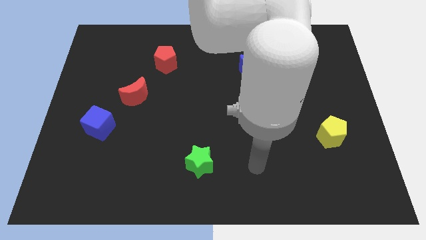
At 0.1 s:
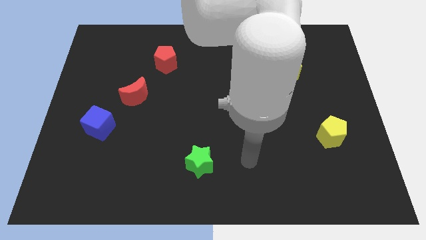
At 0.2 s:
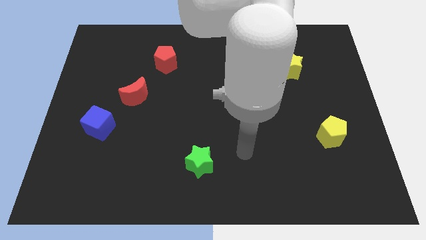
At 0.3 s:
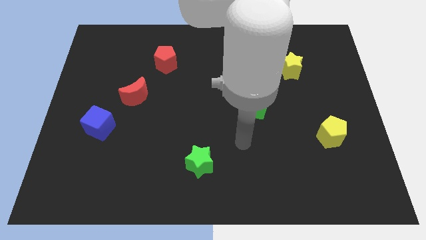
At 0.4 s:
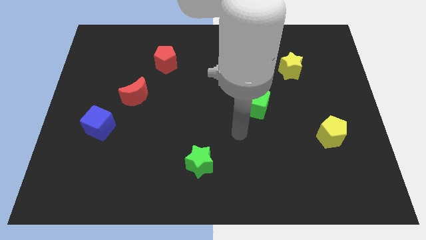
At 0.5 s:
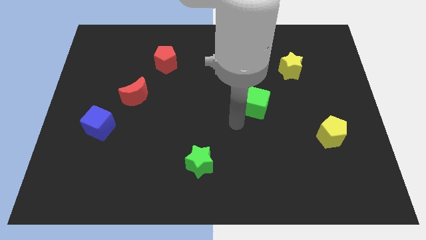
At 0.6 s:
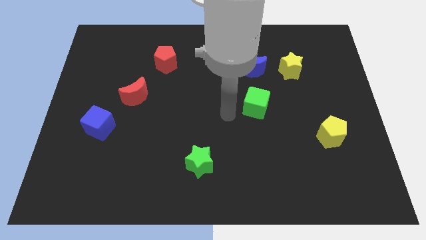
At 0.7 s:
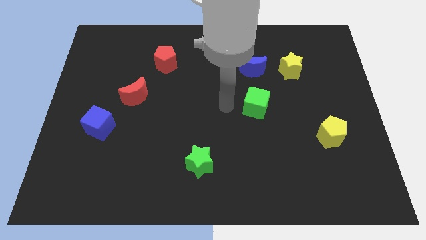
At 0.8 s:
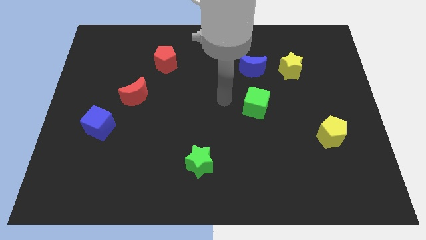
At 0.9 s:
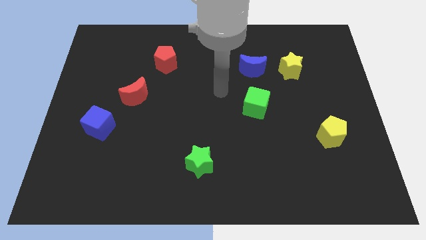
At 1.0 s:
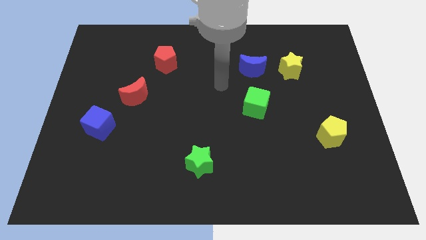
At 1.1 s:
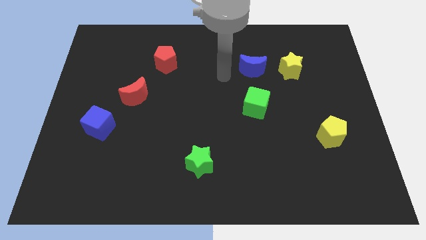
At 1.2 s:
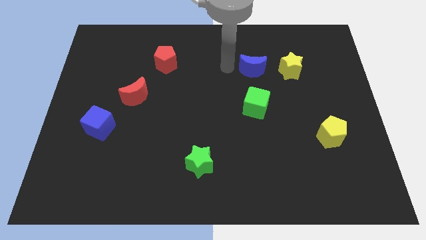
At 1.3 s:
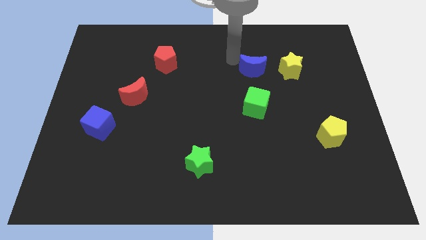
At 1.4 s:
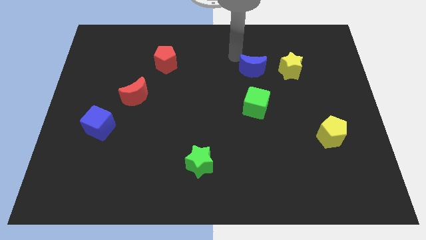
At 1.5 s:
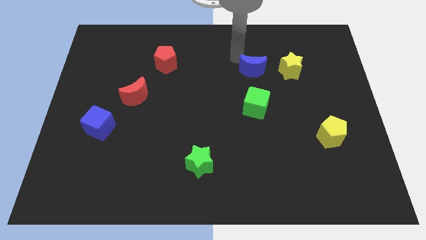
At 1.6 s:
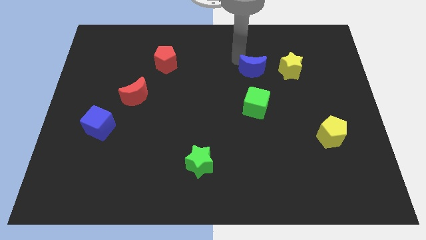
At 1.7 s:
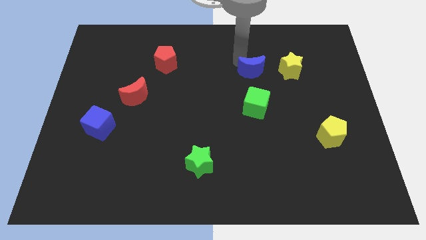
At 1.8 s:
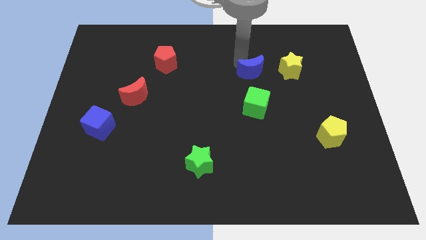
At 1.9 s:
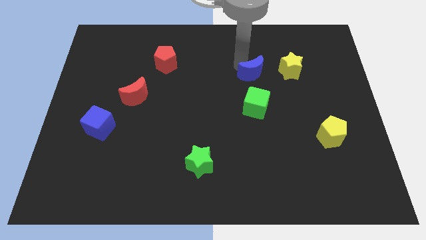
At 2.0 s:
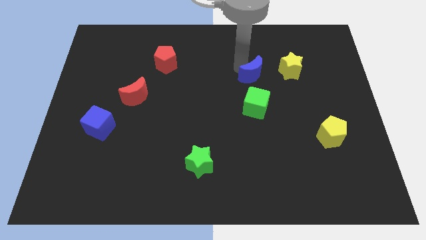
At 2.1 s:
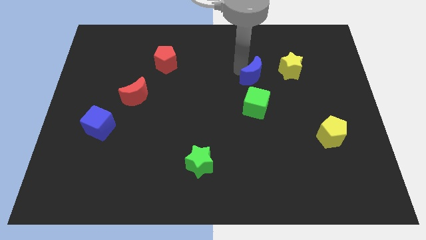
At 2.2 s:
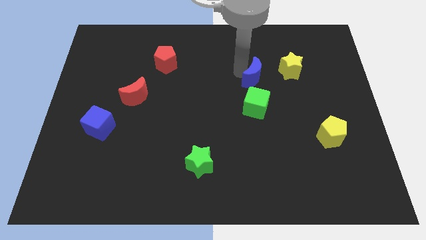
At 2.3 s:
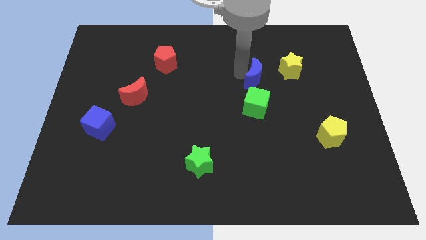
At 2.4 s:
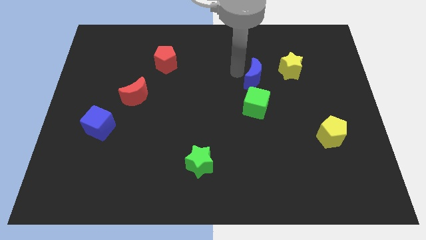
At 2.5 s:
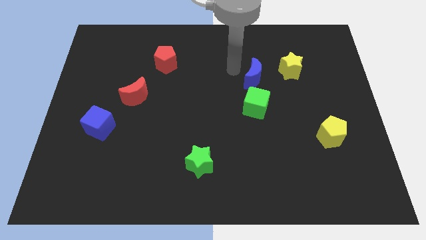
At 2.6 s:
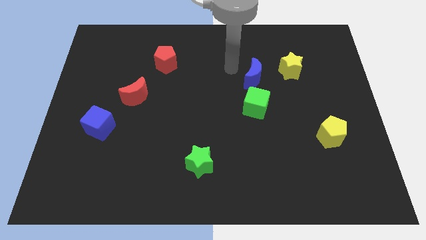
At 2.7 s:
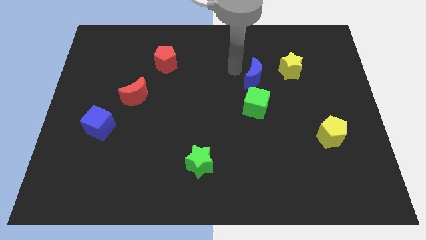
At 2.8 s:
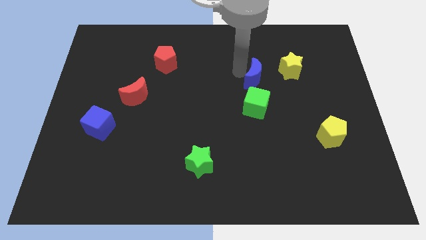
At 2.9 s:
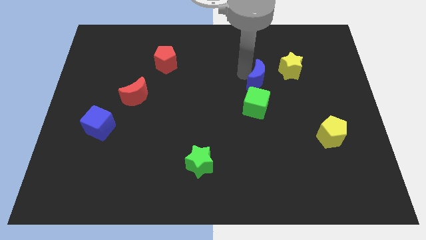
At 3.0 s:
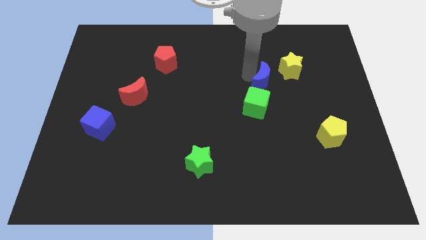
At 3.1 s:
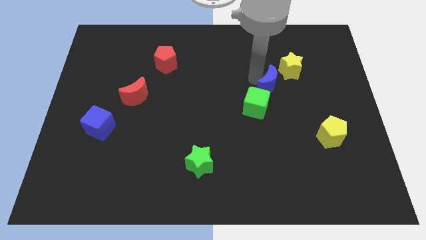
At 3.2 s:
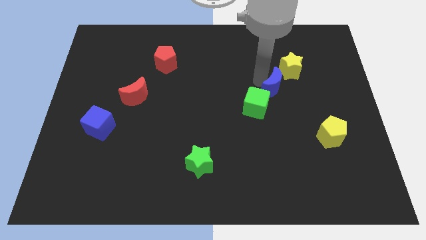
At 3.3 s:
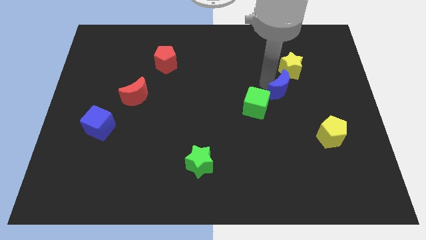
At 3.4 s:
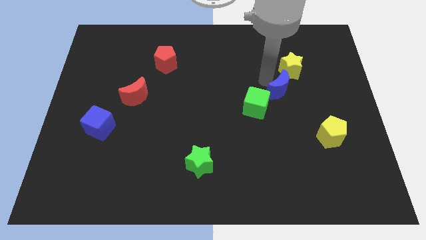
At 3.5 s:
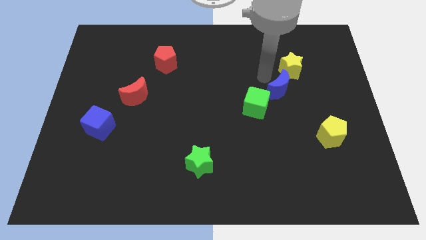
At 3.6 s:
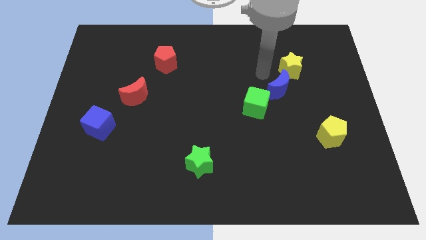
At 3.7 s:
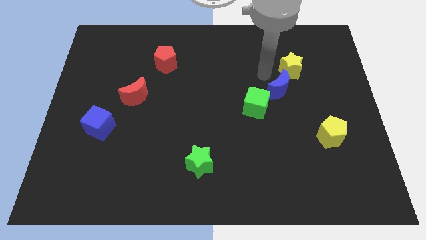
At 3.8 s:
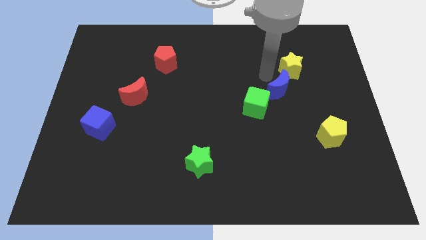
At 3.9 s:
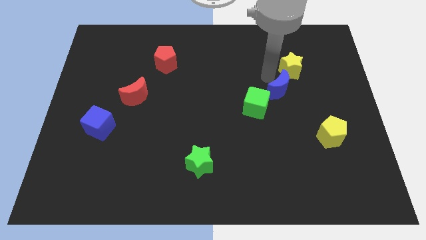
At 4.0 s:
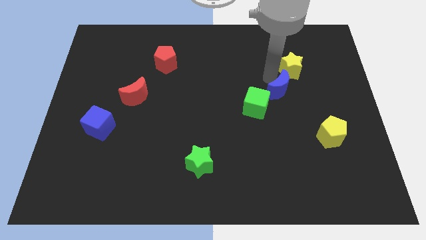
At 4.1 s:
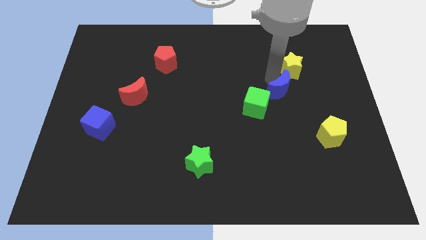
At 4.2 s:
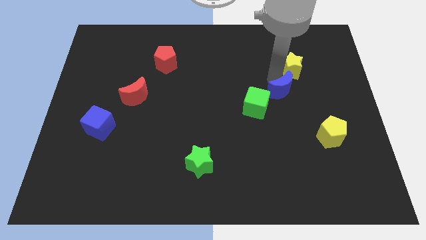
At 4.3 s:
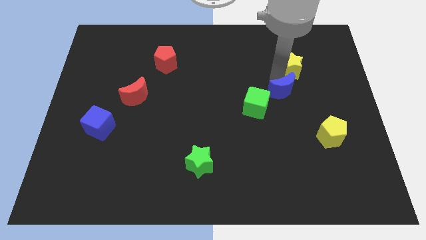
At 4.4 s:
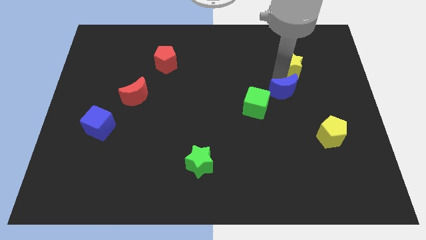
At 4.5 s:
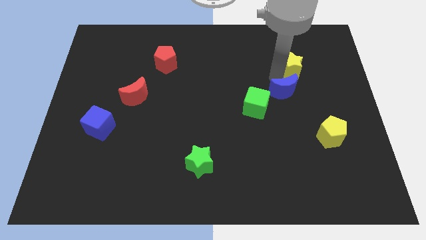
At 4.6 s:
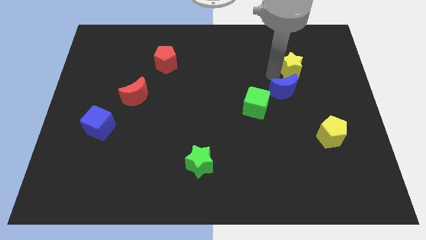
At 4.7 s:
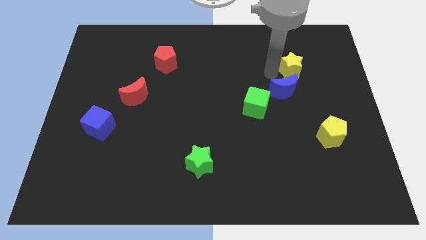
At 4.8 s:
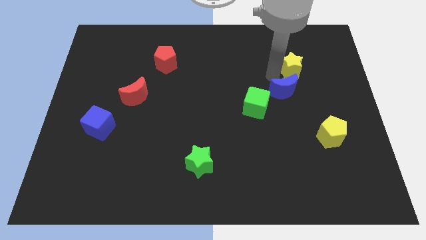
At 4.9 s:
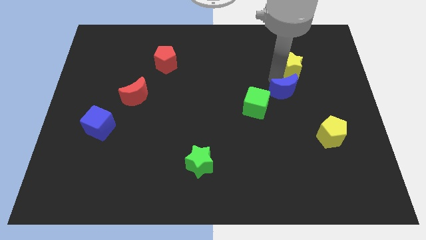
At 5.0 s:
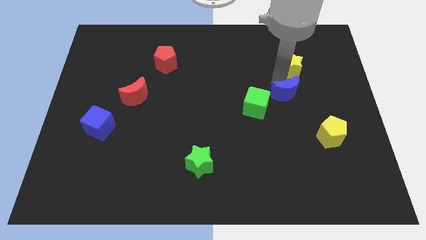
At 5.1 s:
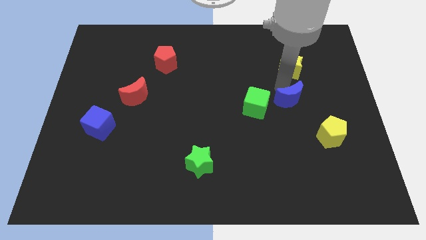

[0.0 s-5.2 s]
move the blue moon to the top left of the yellow pentagon

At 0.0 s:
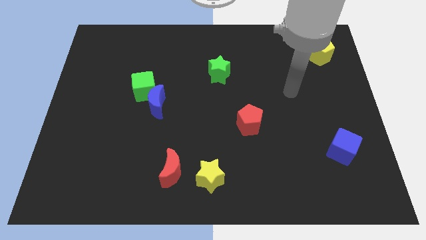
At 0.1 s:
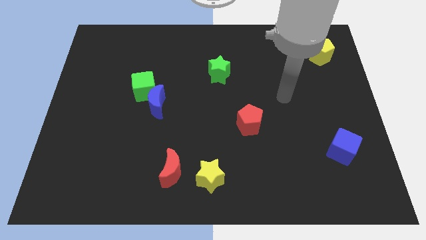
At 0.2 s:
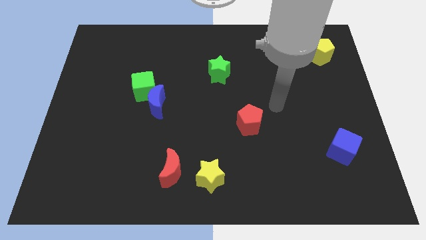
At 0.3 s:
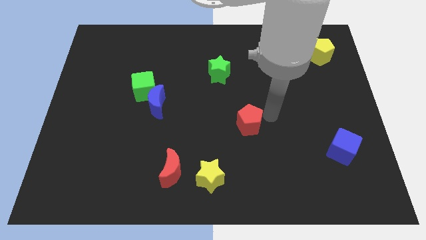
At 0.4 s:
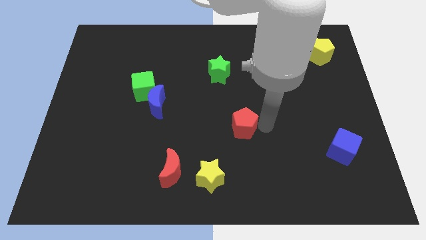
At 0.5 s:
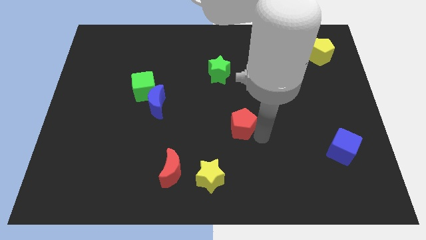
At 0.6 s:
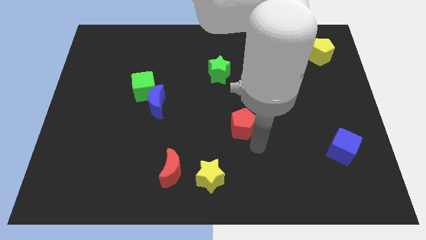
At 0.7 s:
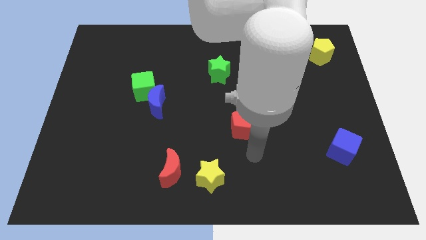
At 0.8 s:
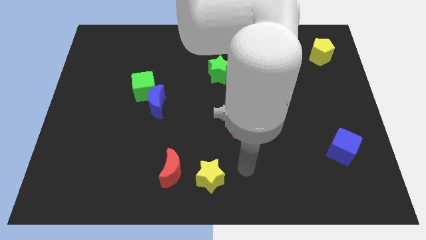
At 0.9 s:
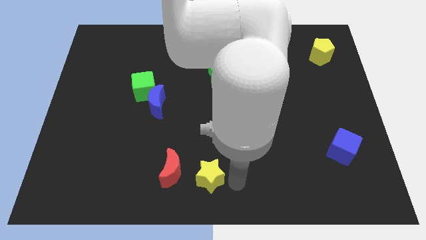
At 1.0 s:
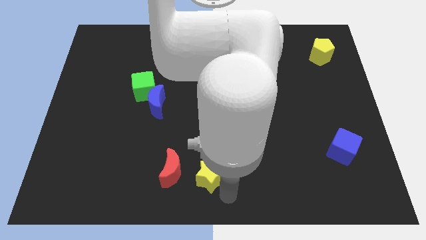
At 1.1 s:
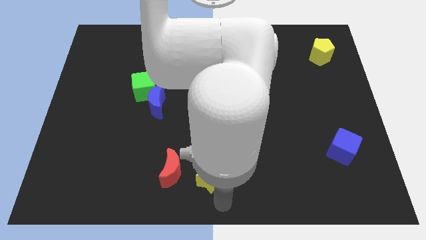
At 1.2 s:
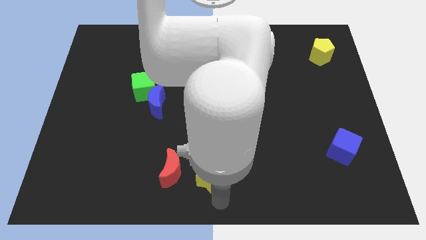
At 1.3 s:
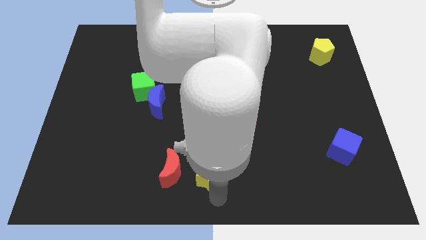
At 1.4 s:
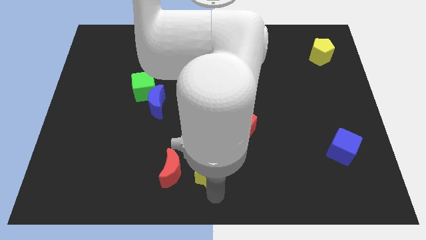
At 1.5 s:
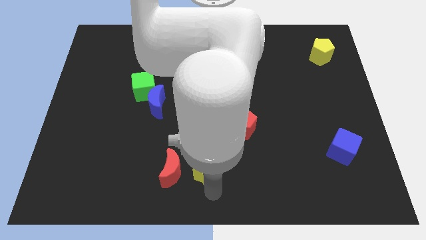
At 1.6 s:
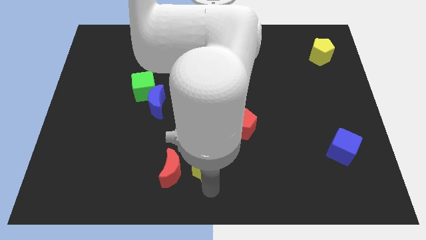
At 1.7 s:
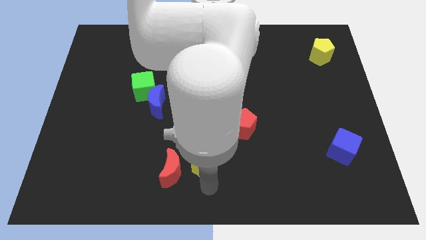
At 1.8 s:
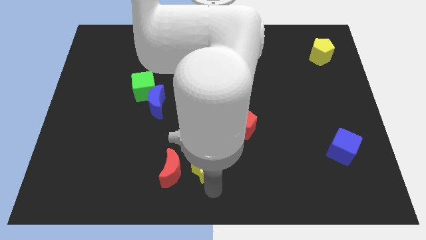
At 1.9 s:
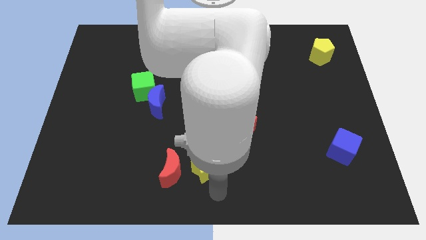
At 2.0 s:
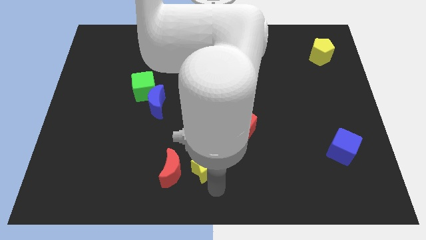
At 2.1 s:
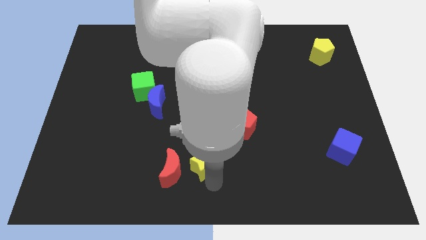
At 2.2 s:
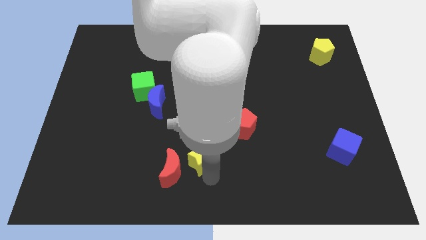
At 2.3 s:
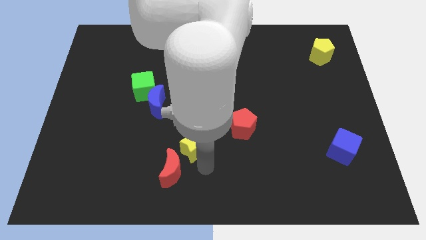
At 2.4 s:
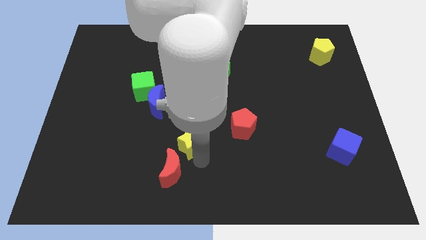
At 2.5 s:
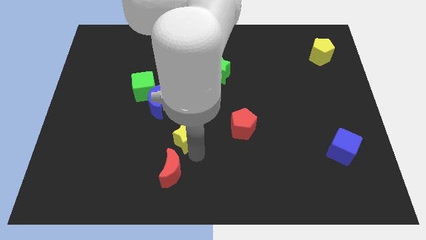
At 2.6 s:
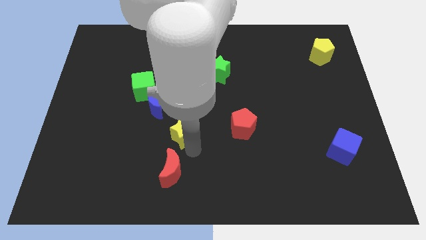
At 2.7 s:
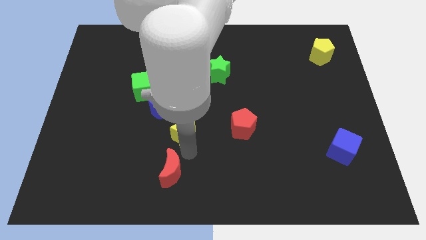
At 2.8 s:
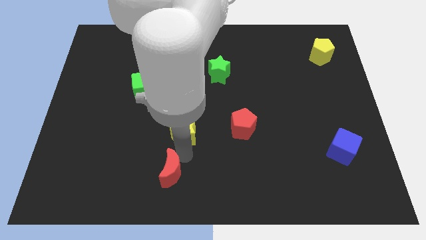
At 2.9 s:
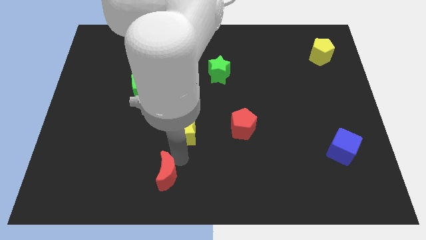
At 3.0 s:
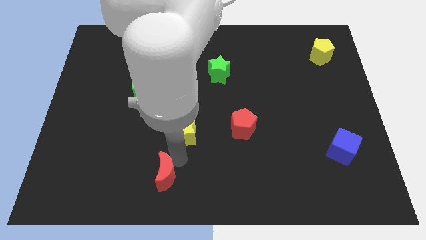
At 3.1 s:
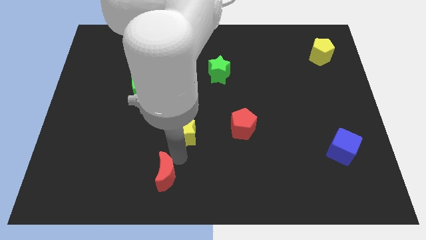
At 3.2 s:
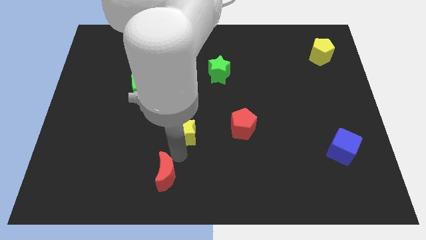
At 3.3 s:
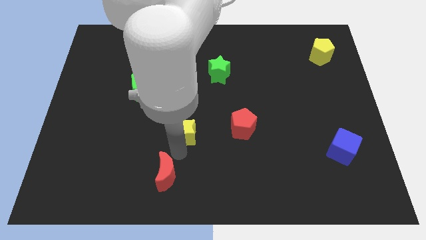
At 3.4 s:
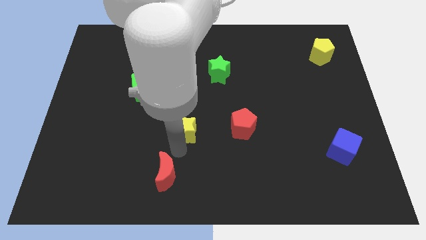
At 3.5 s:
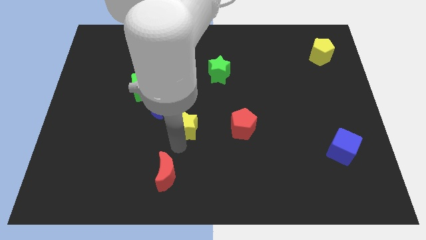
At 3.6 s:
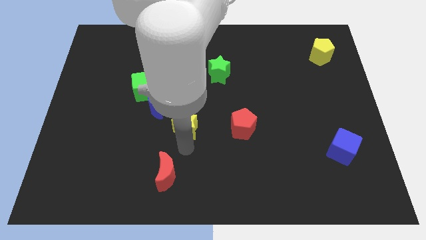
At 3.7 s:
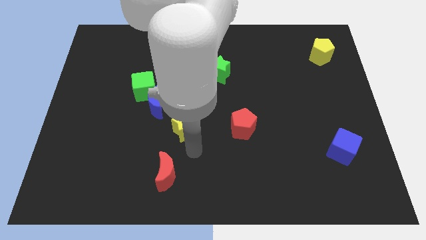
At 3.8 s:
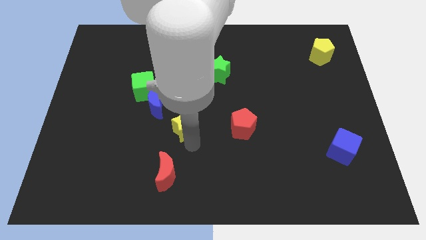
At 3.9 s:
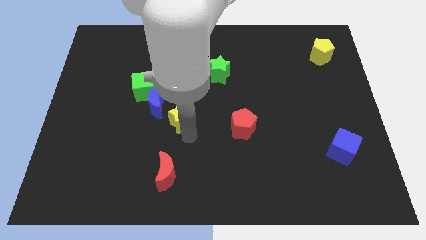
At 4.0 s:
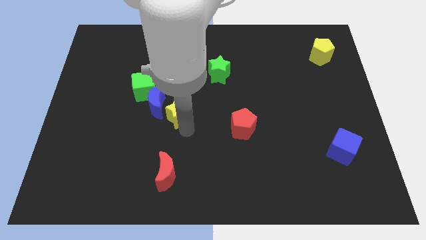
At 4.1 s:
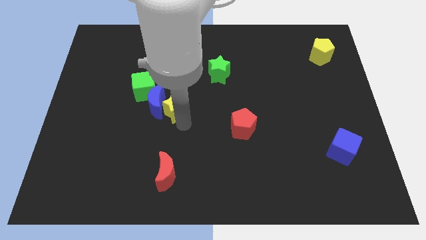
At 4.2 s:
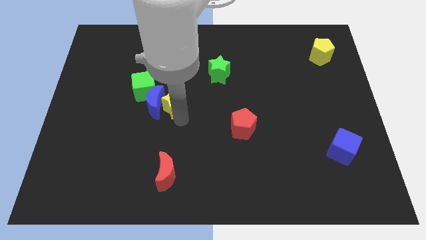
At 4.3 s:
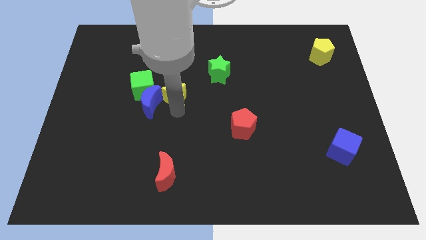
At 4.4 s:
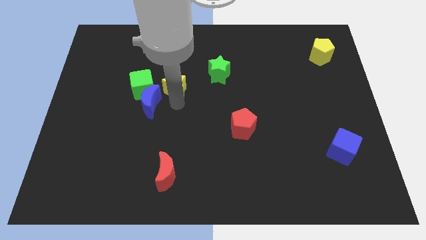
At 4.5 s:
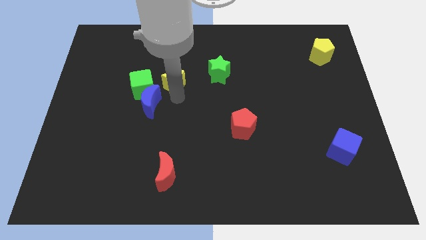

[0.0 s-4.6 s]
slide the yellow star diagonally up and to the right of the green cube
